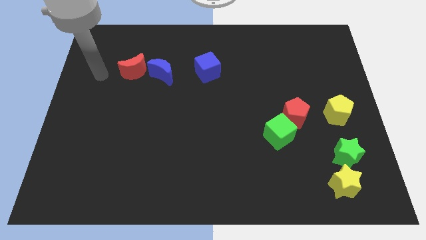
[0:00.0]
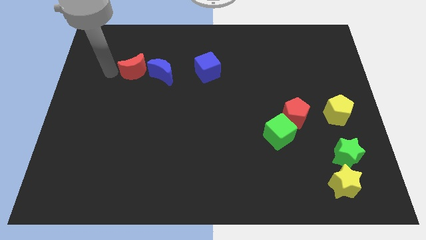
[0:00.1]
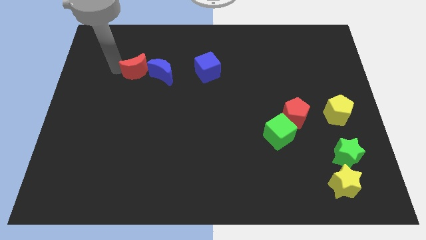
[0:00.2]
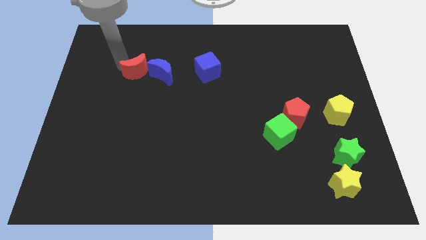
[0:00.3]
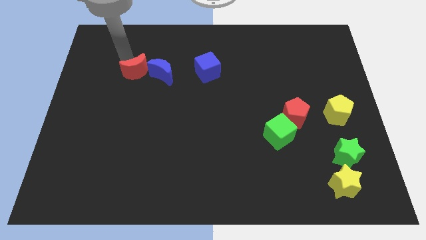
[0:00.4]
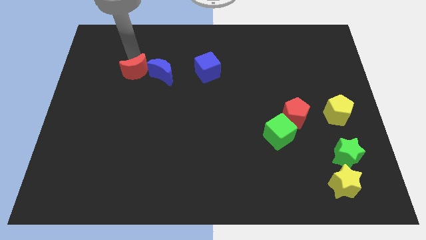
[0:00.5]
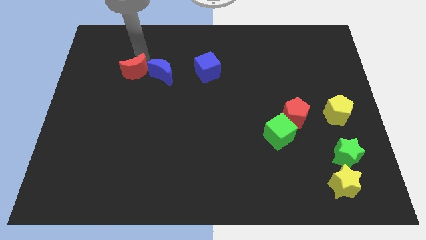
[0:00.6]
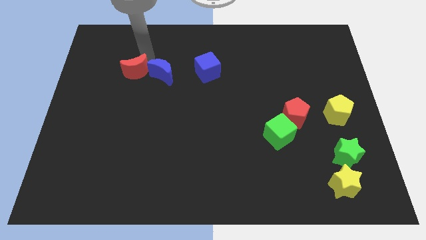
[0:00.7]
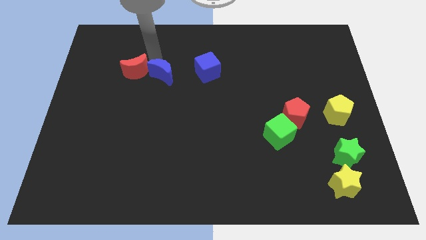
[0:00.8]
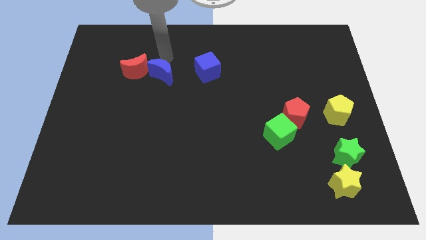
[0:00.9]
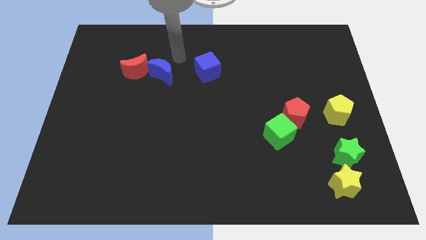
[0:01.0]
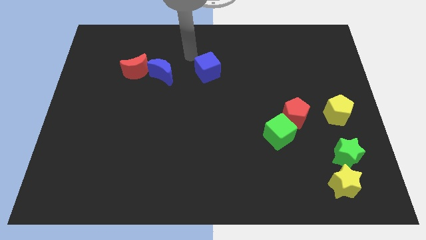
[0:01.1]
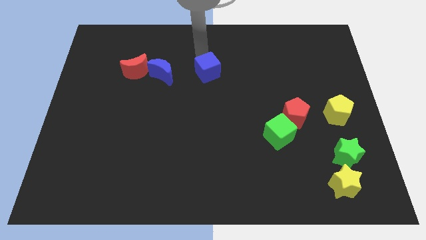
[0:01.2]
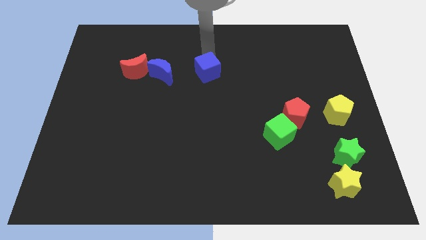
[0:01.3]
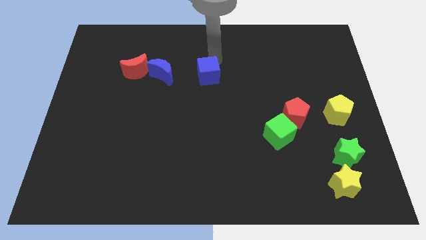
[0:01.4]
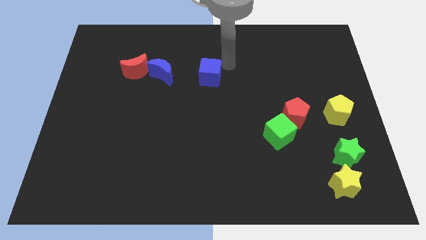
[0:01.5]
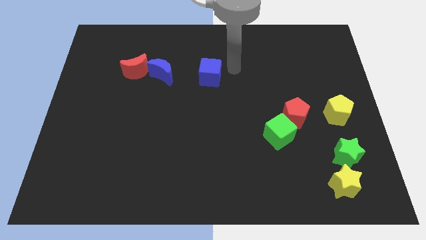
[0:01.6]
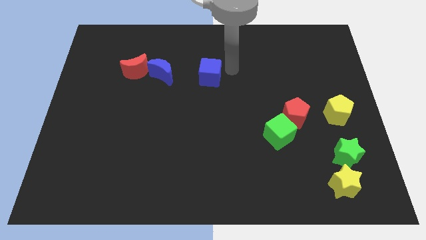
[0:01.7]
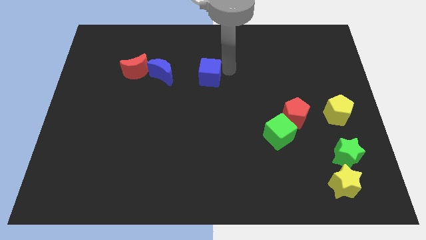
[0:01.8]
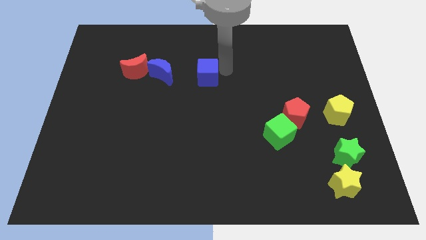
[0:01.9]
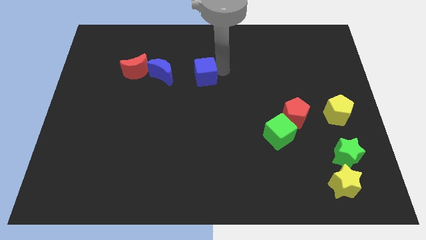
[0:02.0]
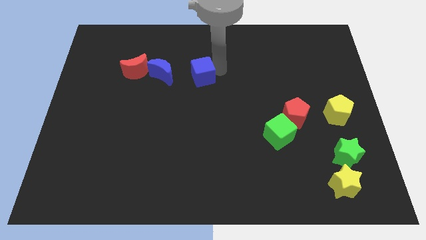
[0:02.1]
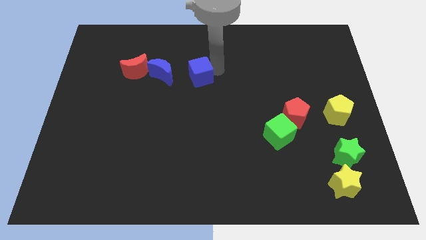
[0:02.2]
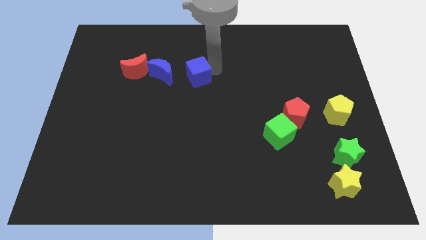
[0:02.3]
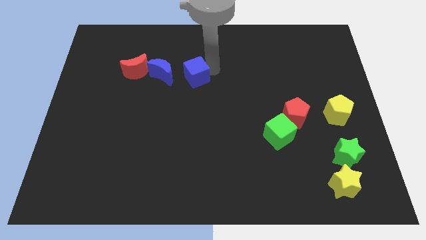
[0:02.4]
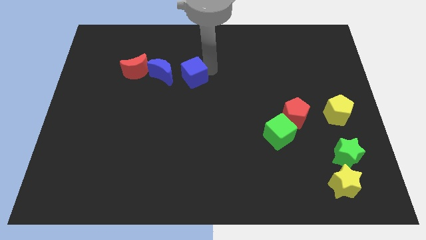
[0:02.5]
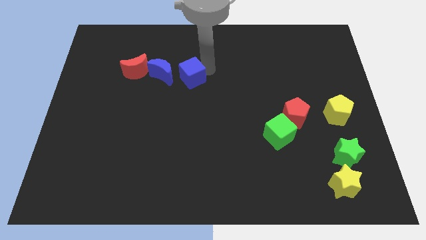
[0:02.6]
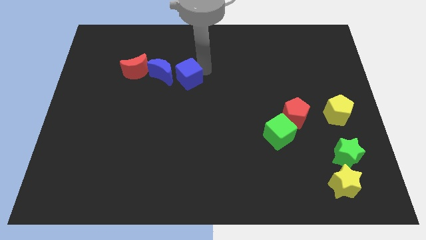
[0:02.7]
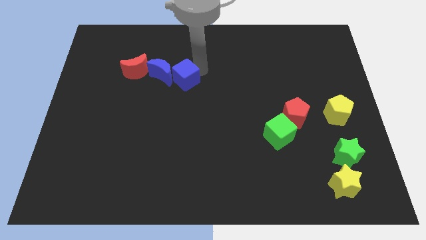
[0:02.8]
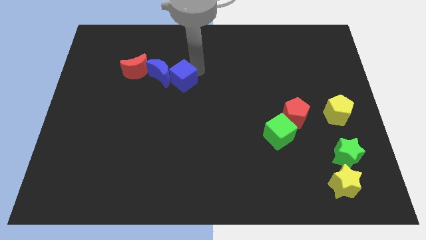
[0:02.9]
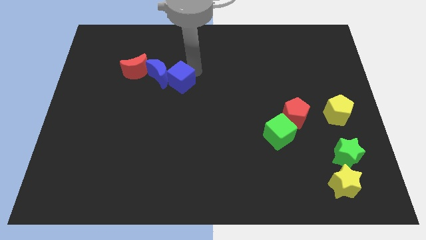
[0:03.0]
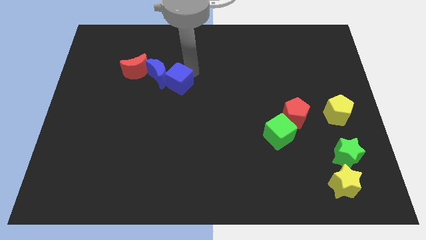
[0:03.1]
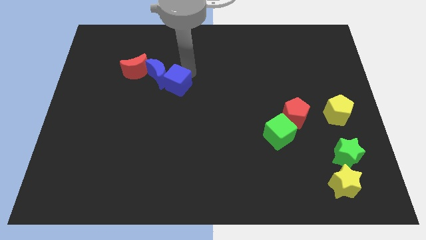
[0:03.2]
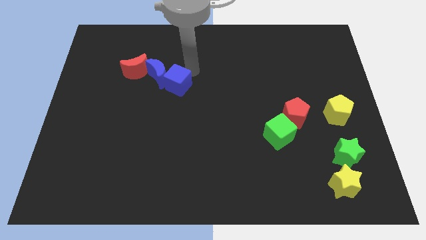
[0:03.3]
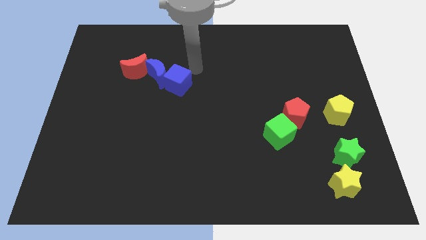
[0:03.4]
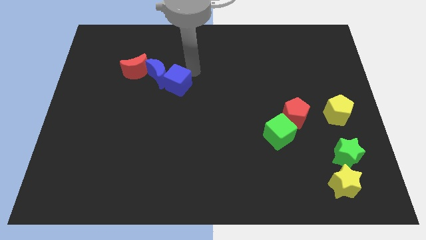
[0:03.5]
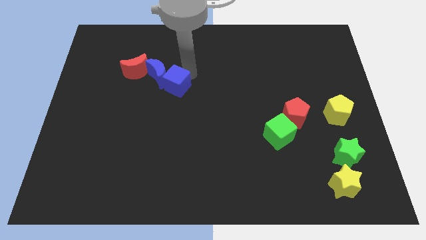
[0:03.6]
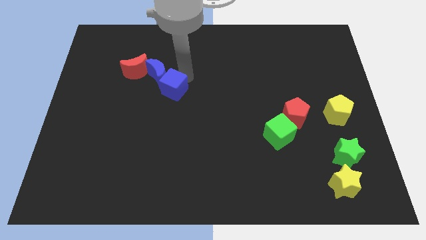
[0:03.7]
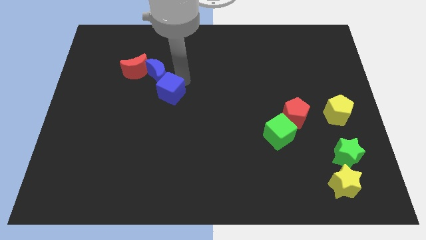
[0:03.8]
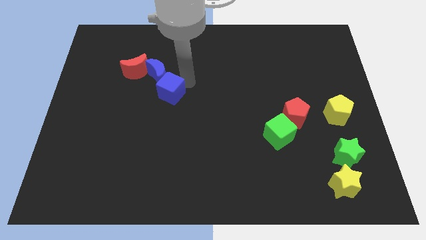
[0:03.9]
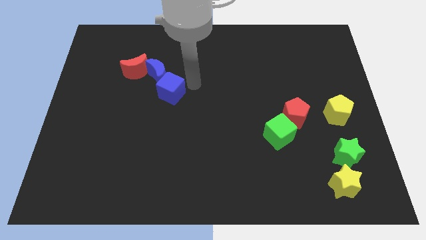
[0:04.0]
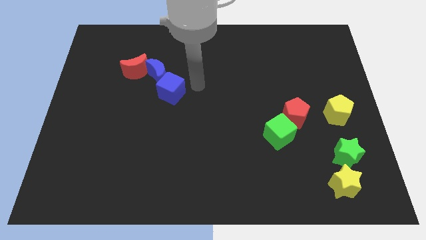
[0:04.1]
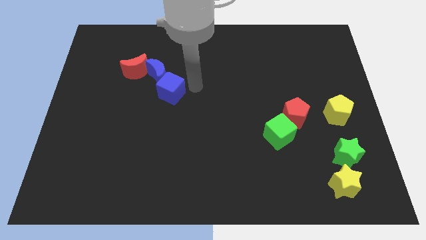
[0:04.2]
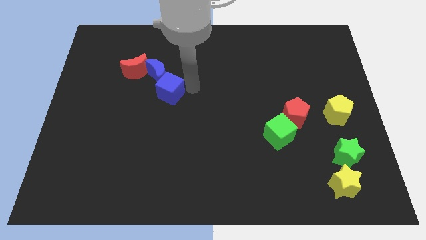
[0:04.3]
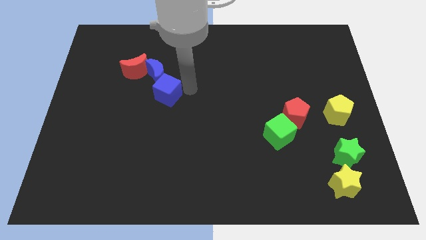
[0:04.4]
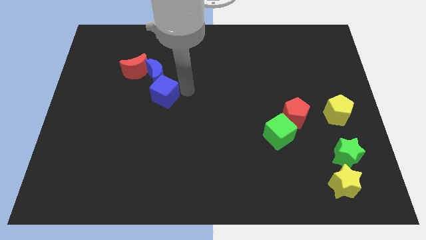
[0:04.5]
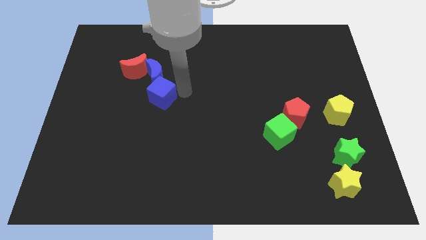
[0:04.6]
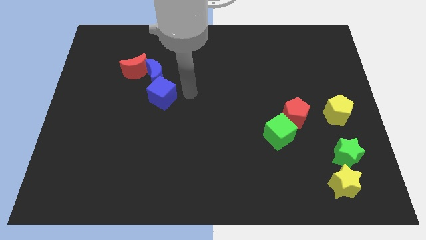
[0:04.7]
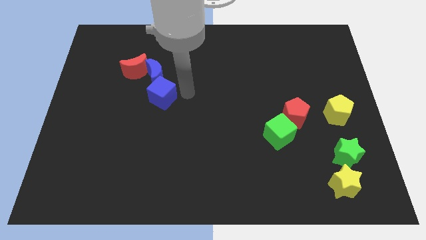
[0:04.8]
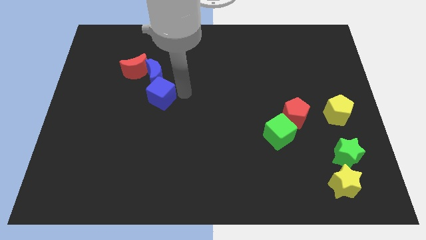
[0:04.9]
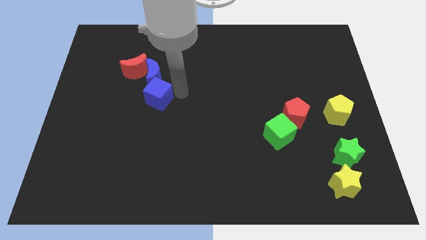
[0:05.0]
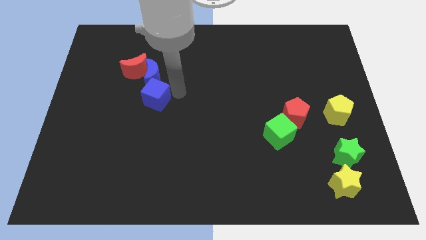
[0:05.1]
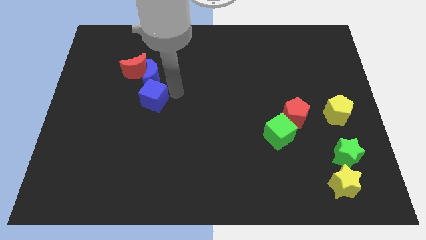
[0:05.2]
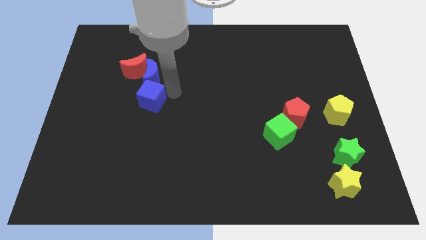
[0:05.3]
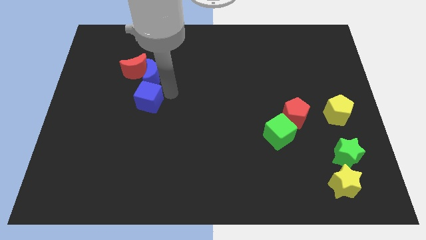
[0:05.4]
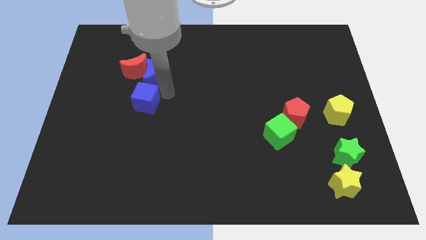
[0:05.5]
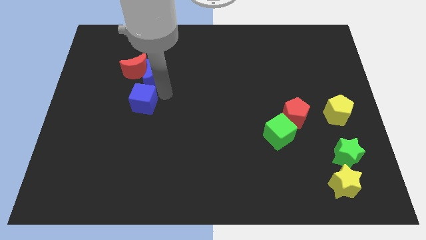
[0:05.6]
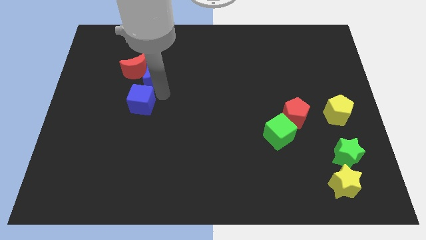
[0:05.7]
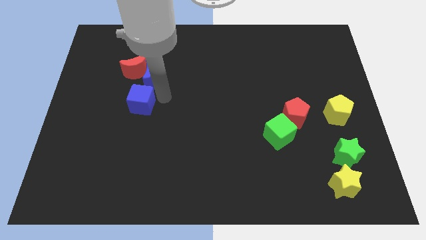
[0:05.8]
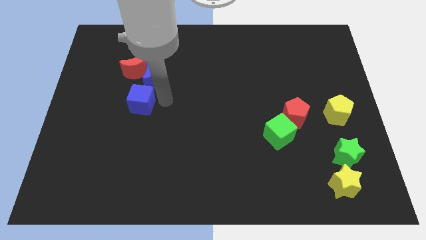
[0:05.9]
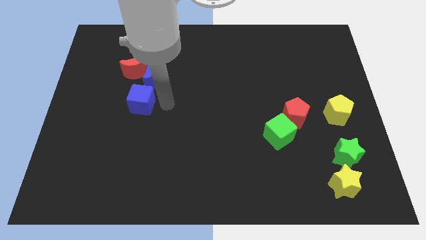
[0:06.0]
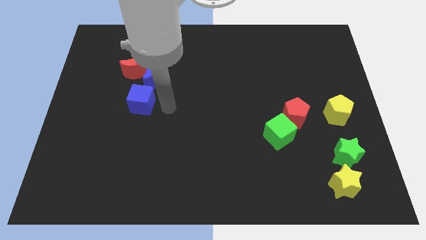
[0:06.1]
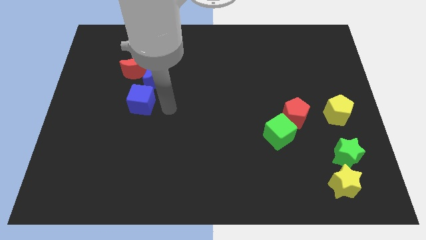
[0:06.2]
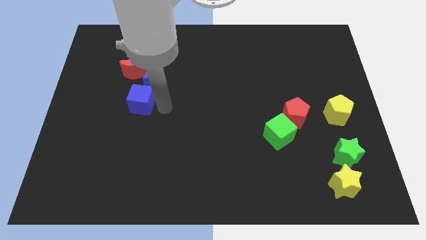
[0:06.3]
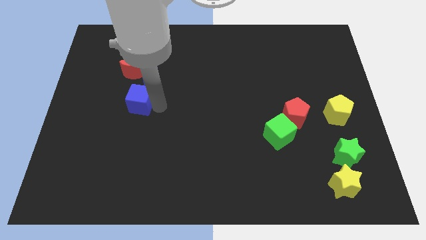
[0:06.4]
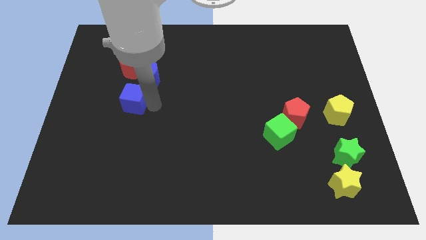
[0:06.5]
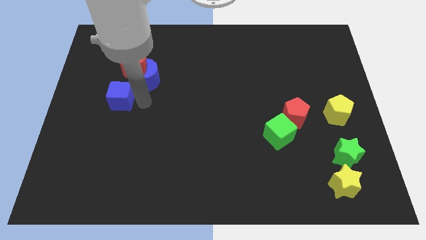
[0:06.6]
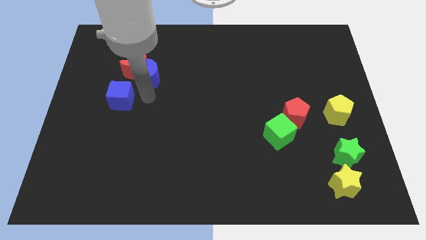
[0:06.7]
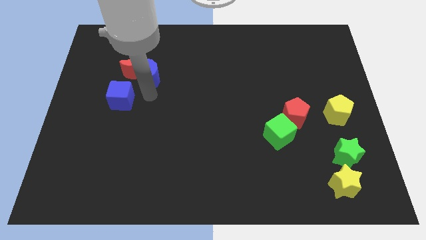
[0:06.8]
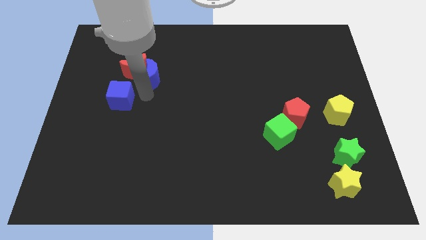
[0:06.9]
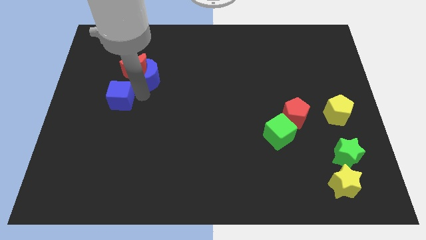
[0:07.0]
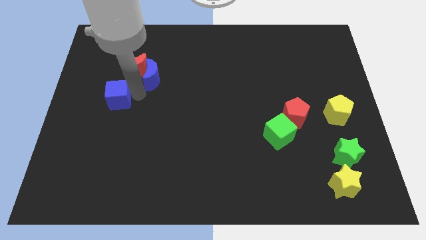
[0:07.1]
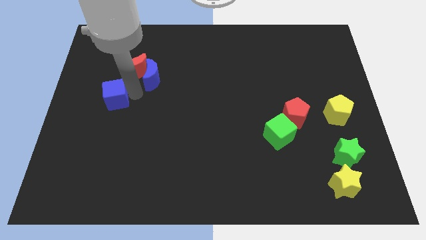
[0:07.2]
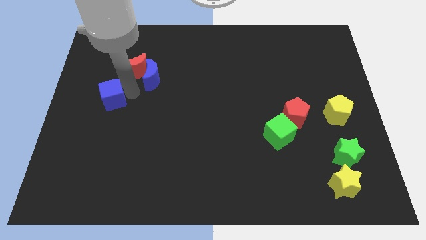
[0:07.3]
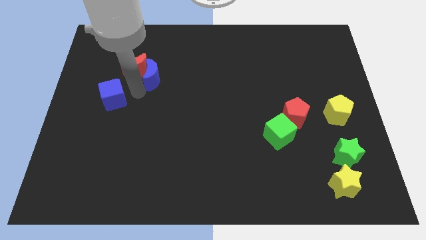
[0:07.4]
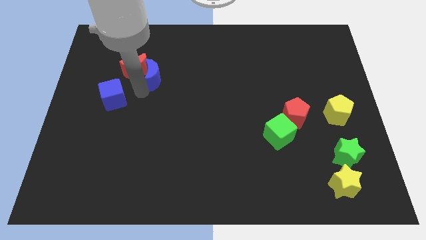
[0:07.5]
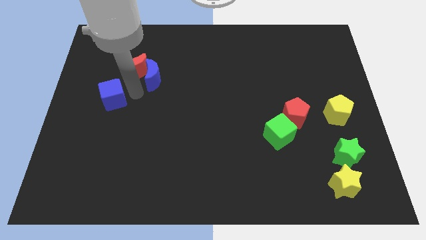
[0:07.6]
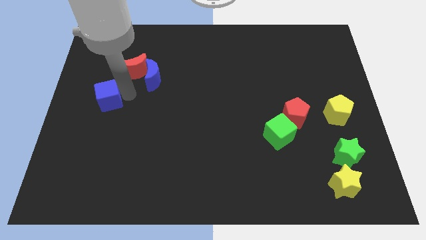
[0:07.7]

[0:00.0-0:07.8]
put the blue cube to the left side of the board
